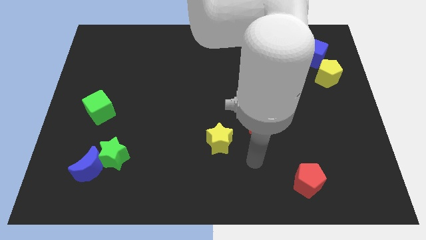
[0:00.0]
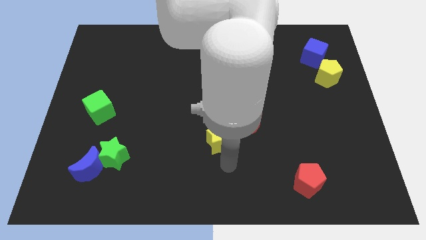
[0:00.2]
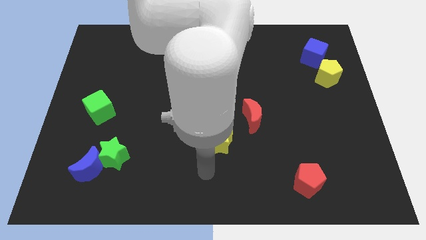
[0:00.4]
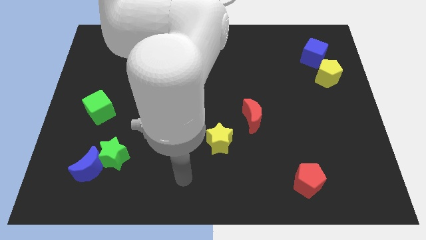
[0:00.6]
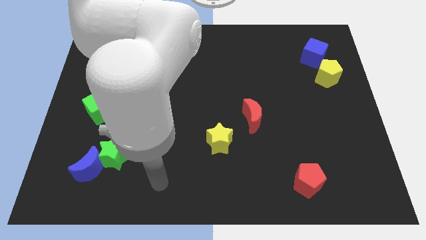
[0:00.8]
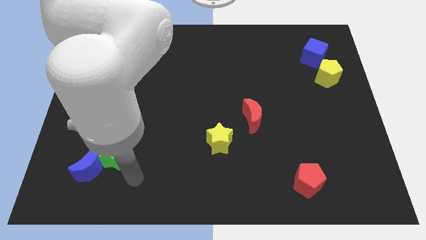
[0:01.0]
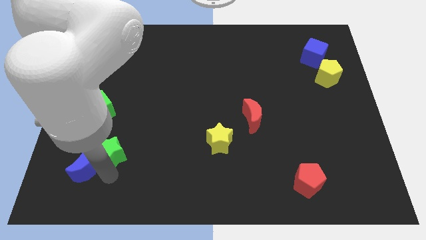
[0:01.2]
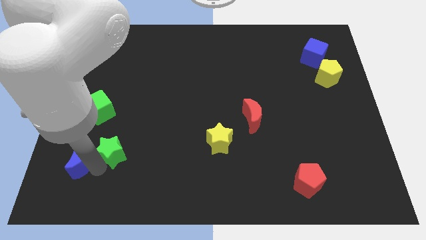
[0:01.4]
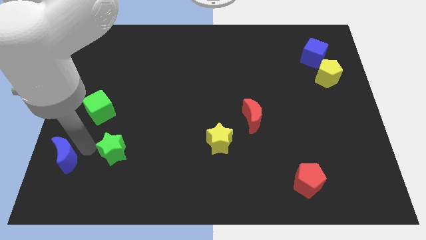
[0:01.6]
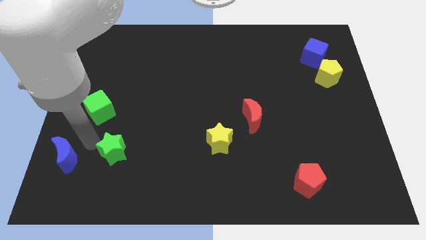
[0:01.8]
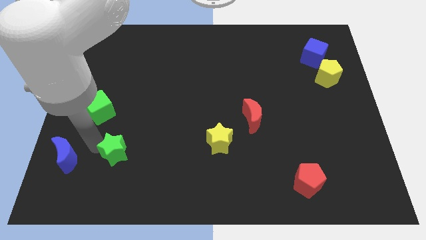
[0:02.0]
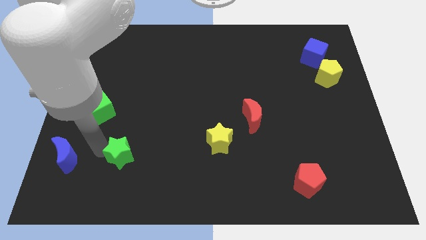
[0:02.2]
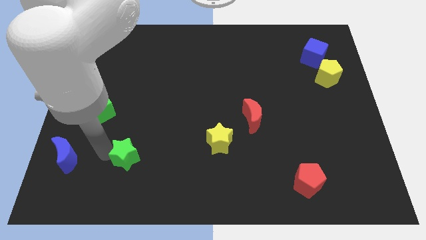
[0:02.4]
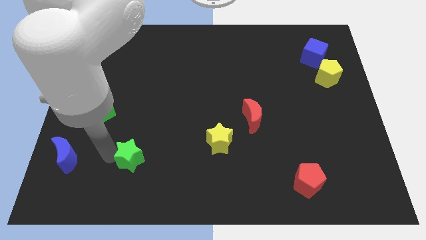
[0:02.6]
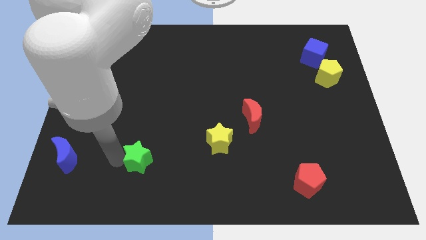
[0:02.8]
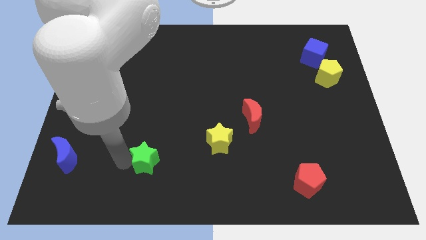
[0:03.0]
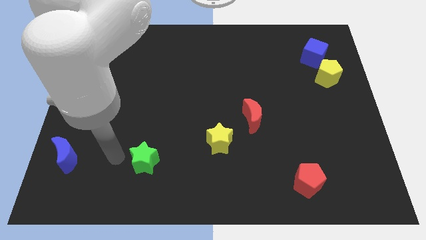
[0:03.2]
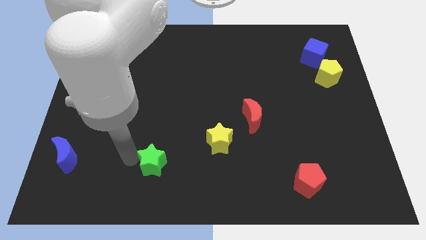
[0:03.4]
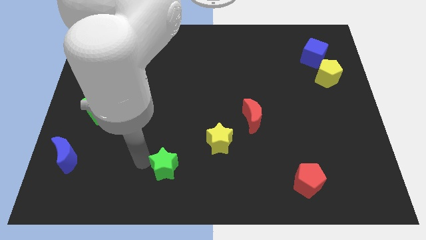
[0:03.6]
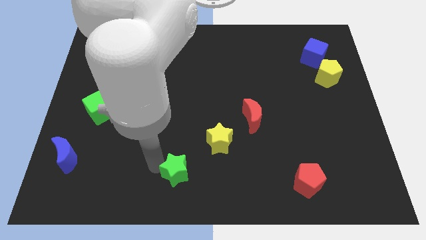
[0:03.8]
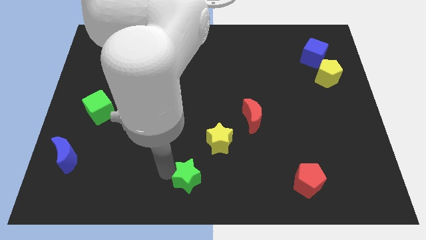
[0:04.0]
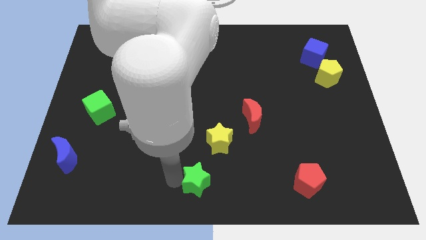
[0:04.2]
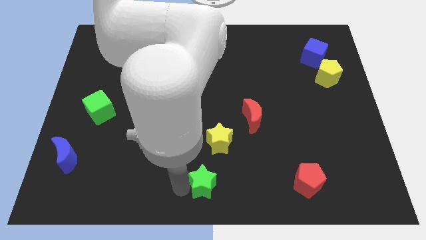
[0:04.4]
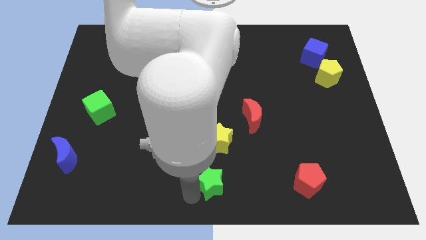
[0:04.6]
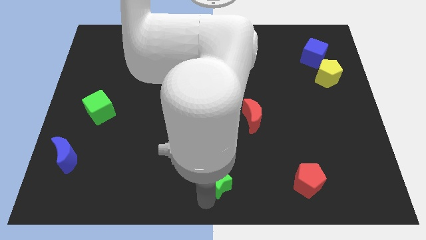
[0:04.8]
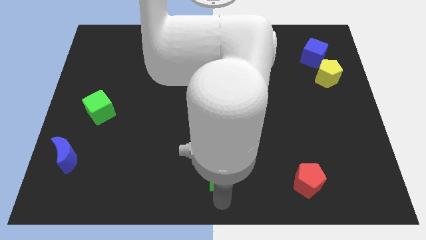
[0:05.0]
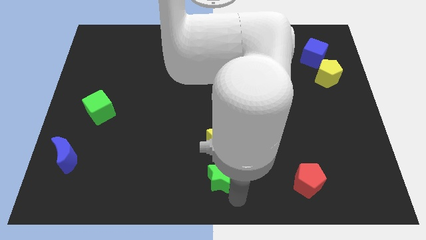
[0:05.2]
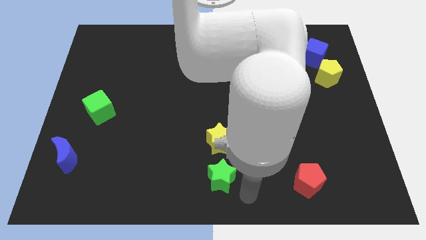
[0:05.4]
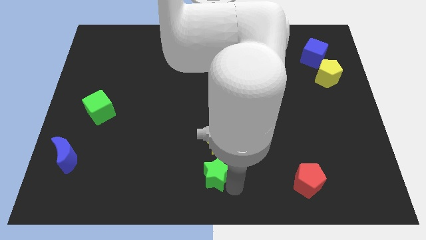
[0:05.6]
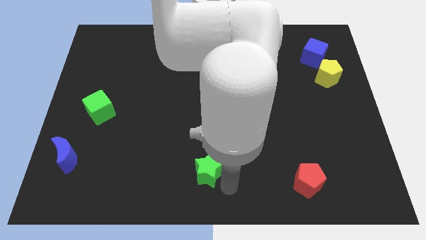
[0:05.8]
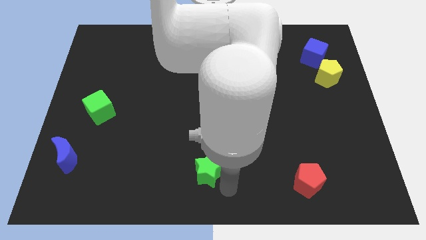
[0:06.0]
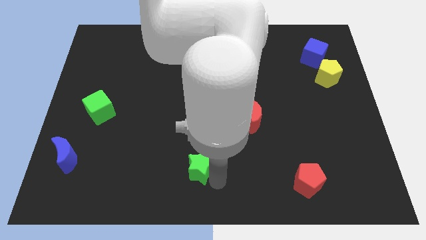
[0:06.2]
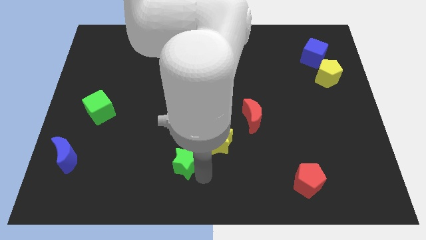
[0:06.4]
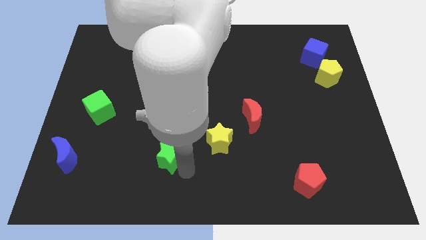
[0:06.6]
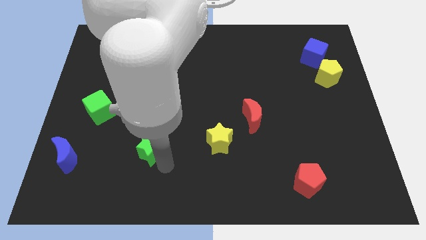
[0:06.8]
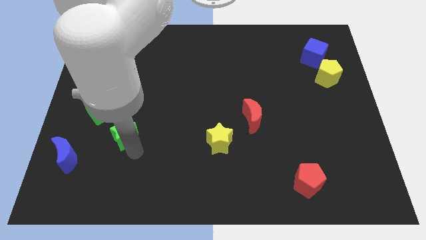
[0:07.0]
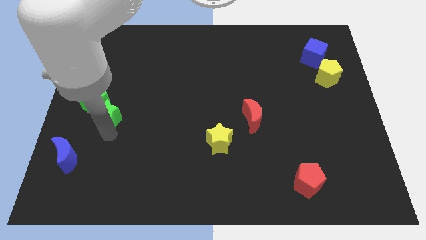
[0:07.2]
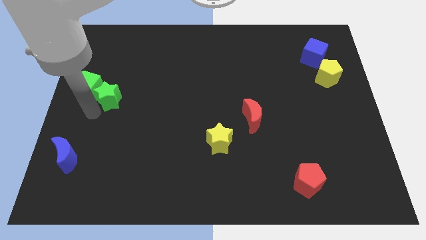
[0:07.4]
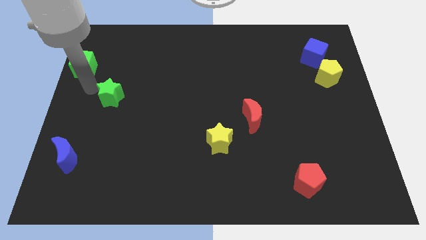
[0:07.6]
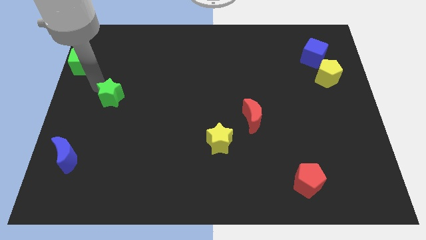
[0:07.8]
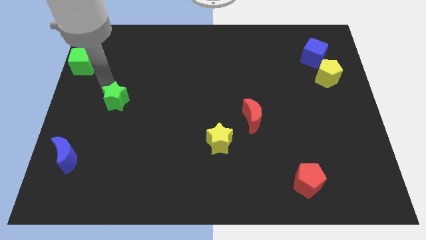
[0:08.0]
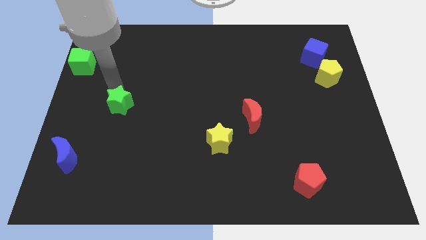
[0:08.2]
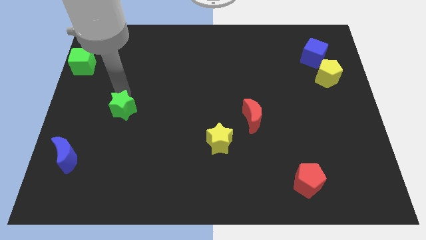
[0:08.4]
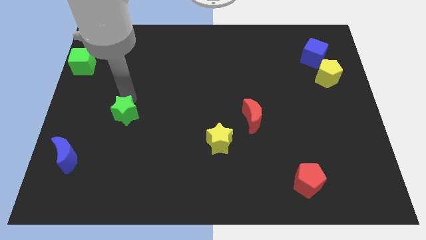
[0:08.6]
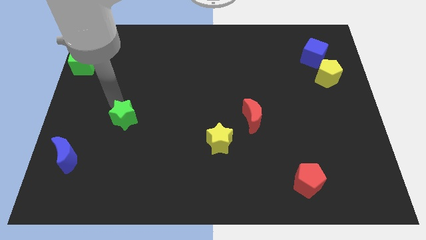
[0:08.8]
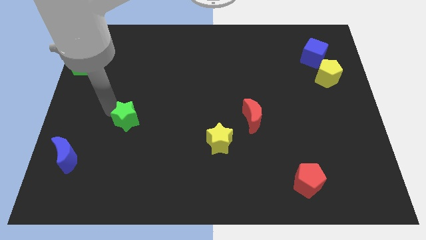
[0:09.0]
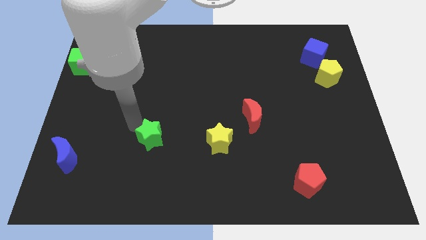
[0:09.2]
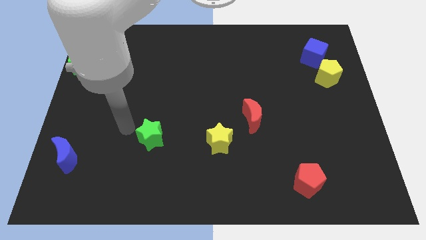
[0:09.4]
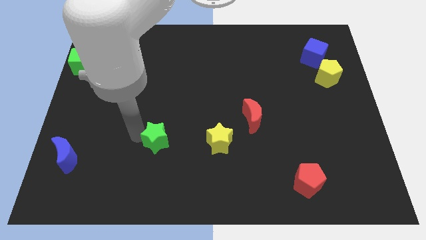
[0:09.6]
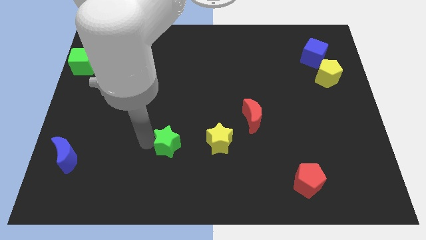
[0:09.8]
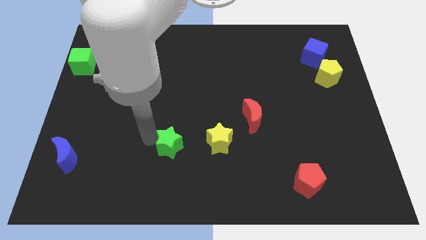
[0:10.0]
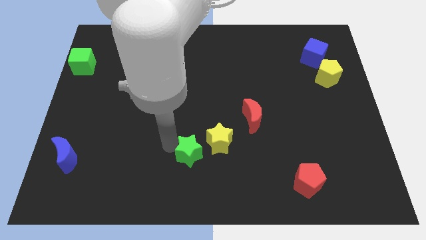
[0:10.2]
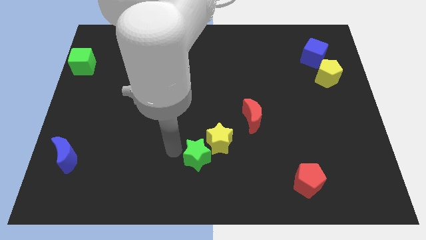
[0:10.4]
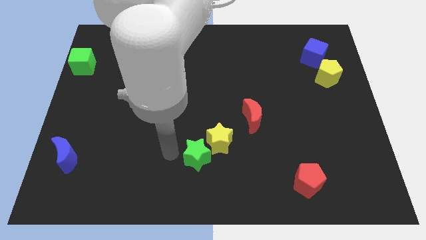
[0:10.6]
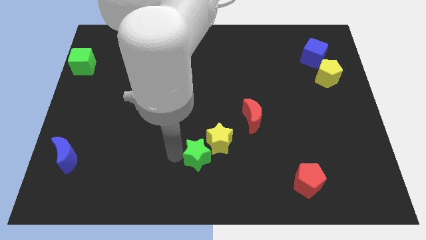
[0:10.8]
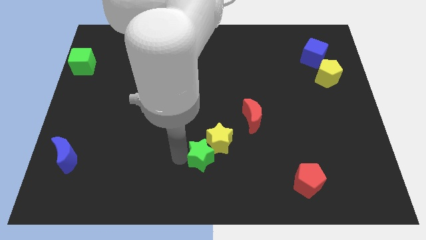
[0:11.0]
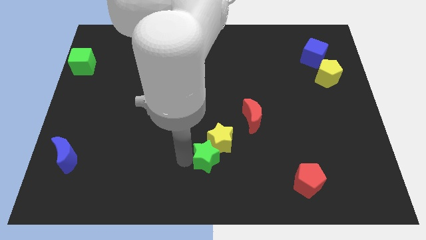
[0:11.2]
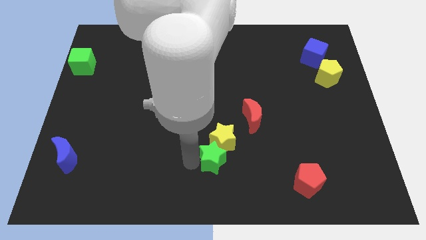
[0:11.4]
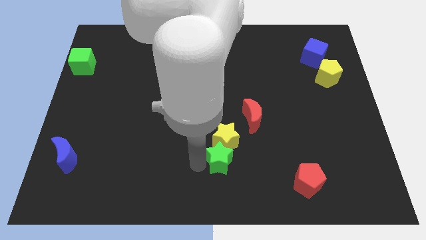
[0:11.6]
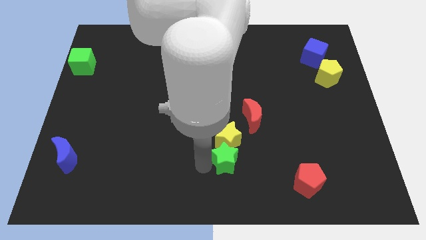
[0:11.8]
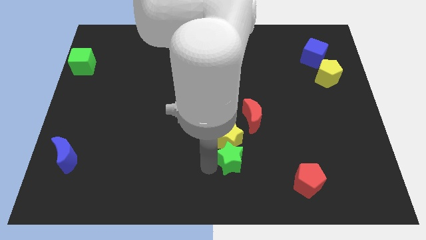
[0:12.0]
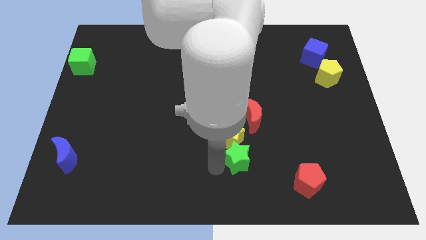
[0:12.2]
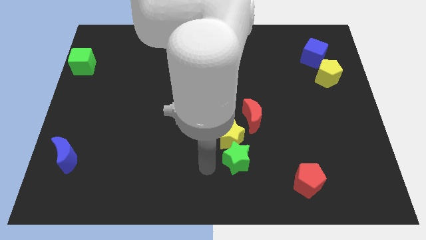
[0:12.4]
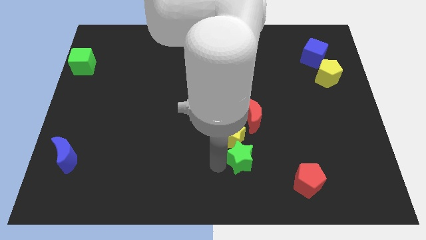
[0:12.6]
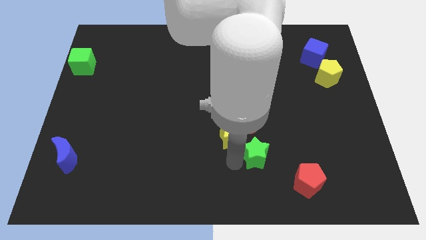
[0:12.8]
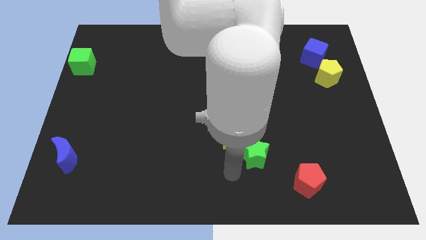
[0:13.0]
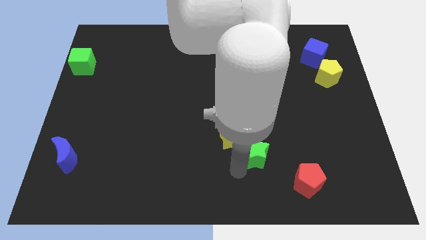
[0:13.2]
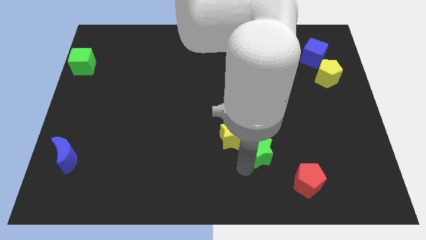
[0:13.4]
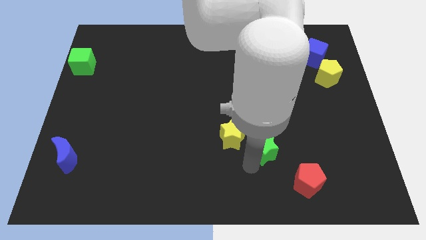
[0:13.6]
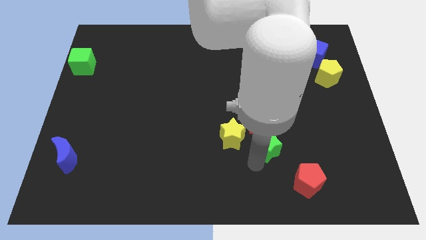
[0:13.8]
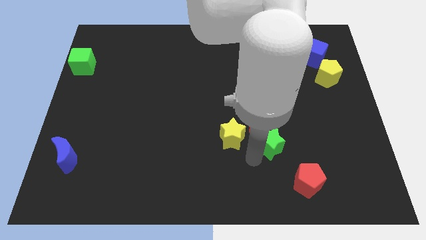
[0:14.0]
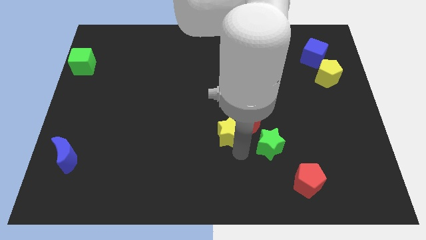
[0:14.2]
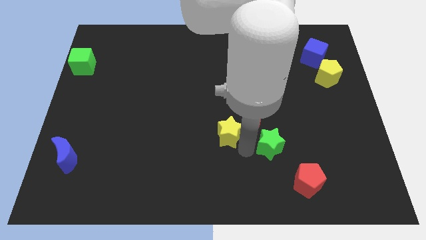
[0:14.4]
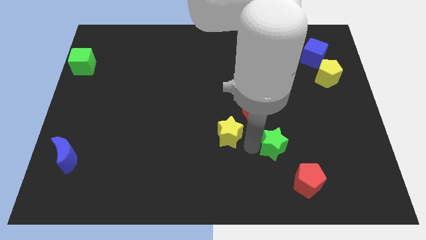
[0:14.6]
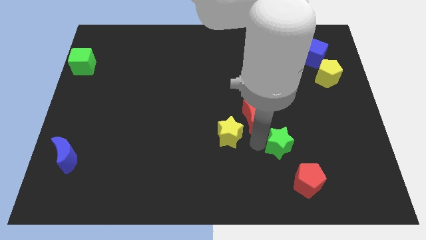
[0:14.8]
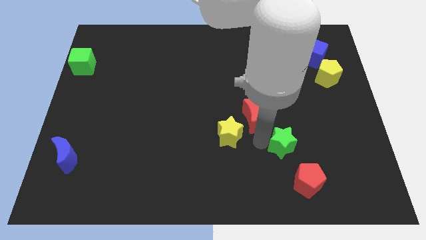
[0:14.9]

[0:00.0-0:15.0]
slide the green star above the red pentagon
